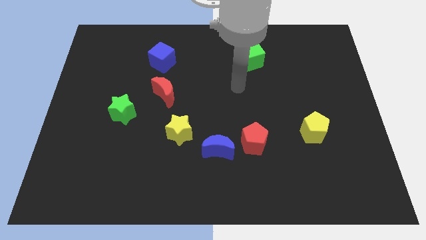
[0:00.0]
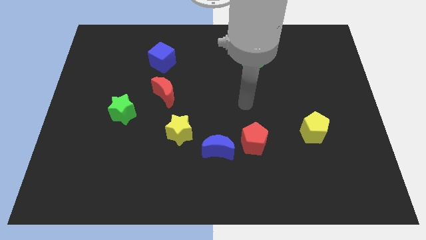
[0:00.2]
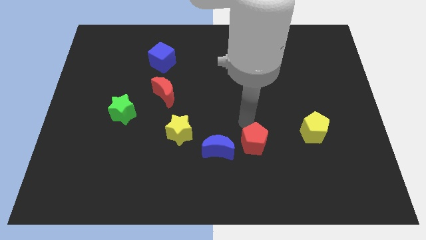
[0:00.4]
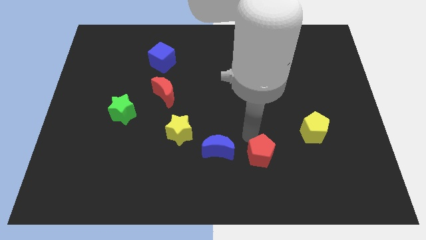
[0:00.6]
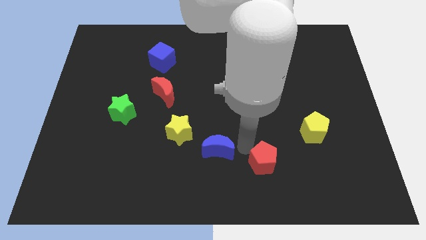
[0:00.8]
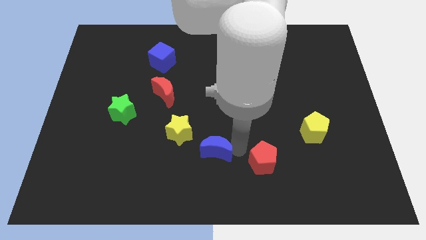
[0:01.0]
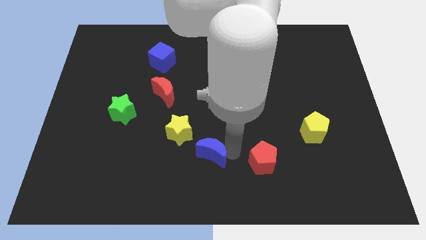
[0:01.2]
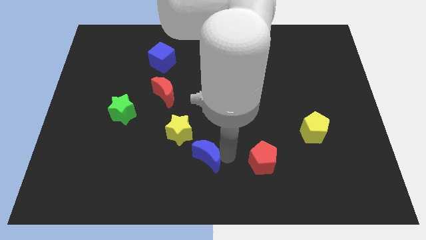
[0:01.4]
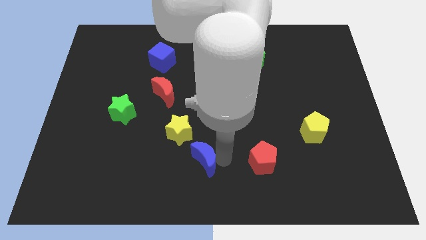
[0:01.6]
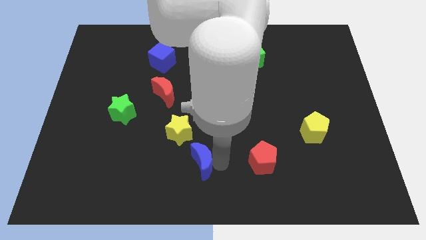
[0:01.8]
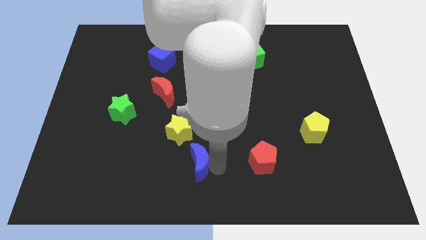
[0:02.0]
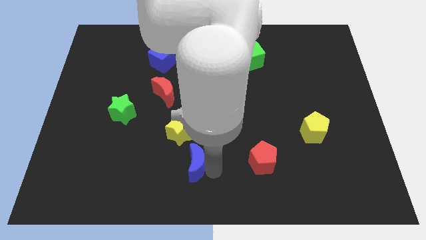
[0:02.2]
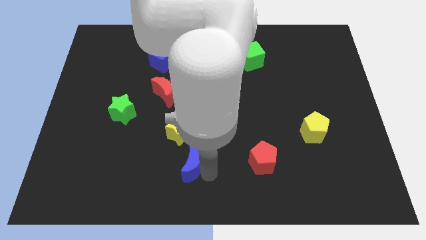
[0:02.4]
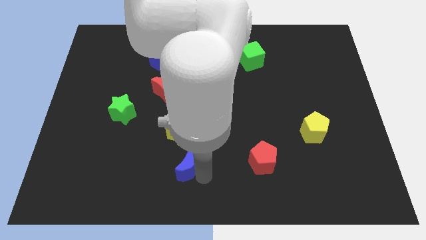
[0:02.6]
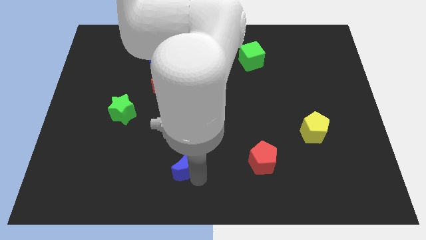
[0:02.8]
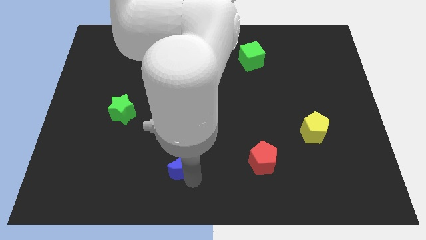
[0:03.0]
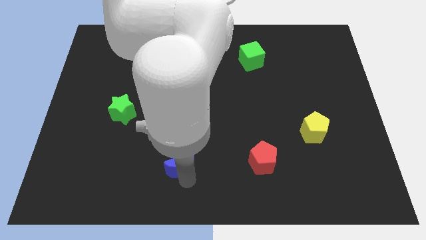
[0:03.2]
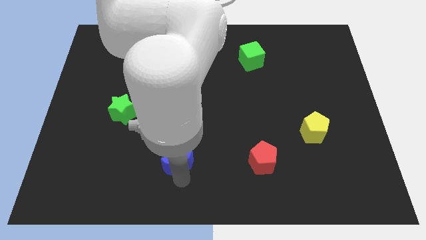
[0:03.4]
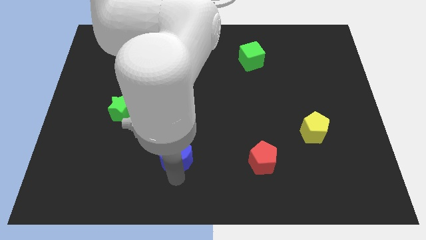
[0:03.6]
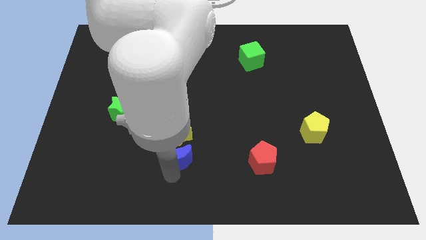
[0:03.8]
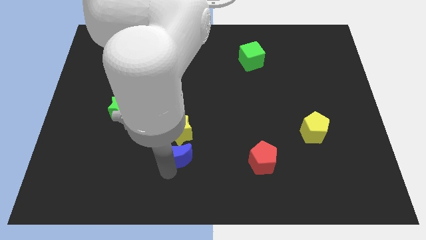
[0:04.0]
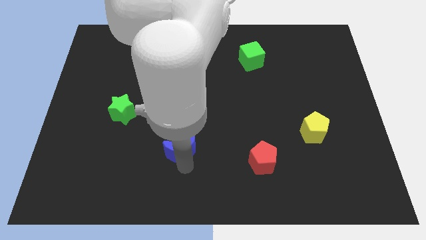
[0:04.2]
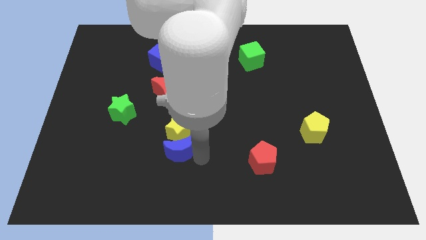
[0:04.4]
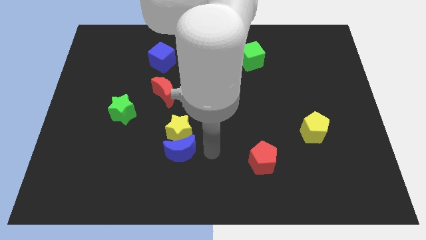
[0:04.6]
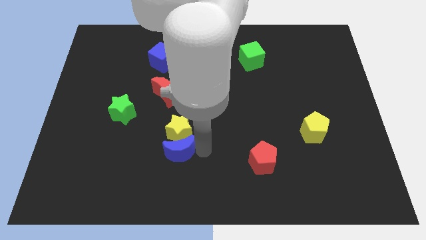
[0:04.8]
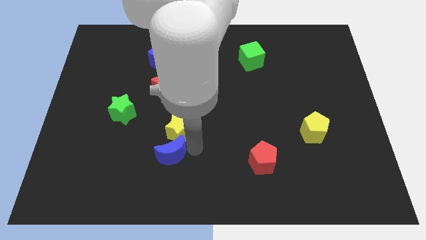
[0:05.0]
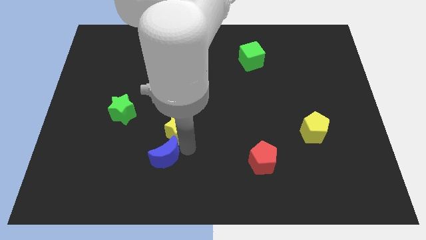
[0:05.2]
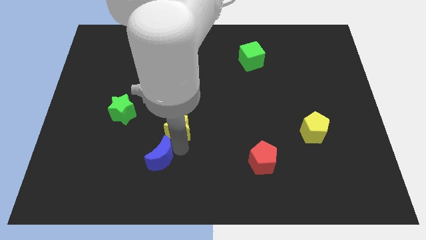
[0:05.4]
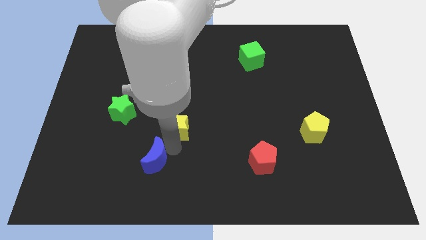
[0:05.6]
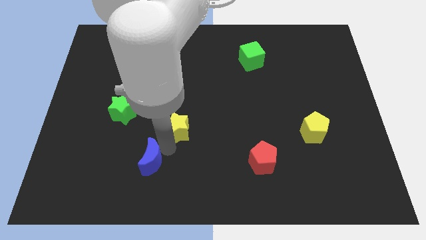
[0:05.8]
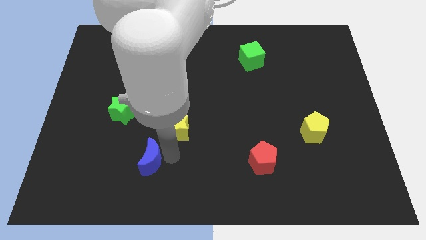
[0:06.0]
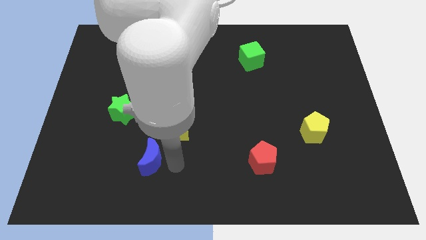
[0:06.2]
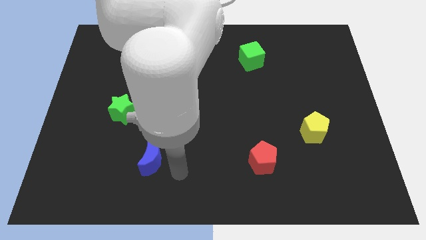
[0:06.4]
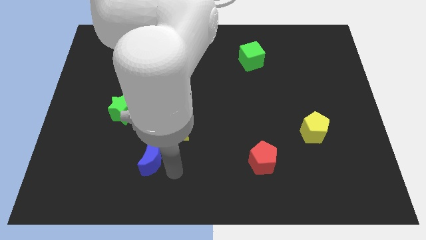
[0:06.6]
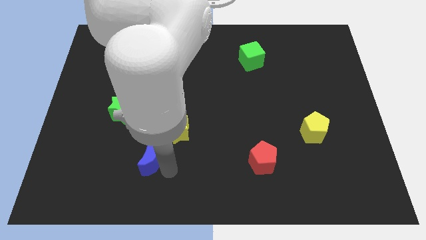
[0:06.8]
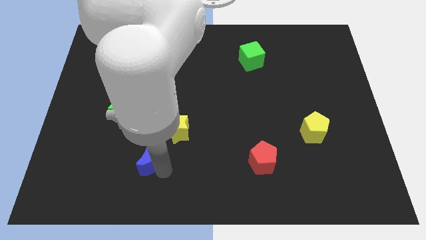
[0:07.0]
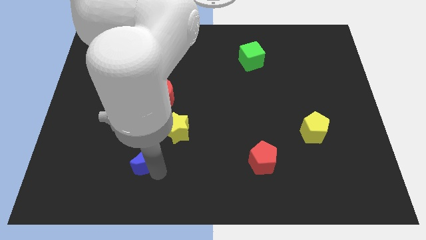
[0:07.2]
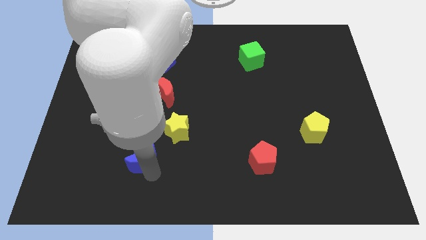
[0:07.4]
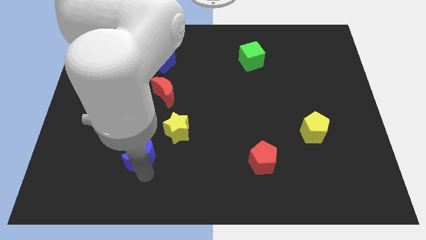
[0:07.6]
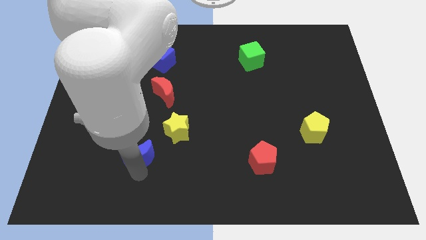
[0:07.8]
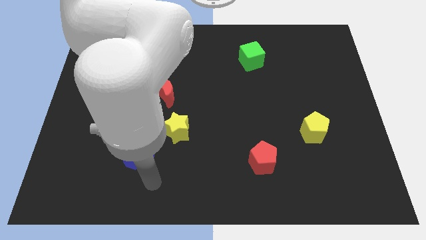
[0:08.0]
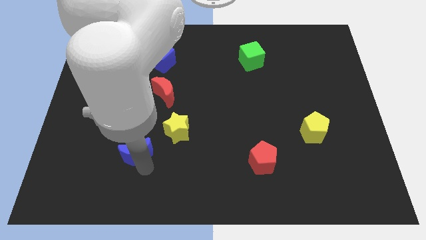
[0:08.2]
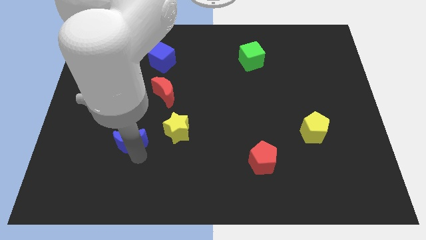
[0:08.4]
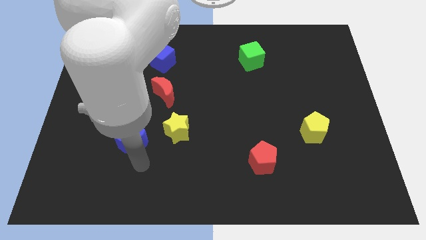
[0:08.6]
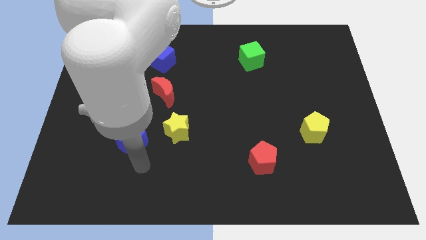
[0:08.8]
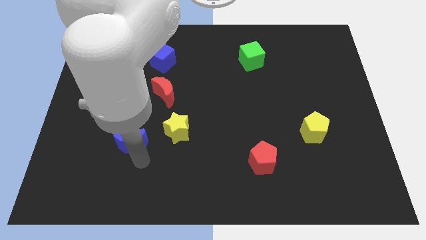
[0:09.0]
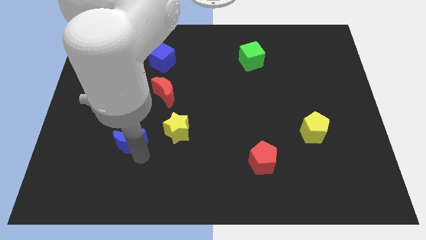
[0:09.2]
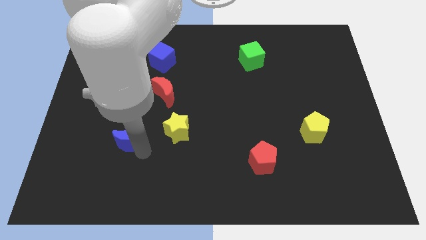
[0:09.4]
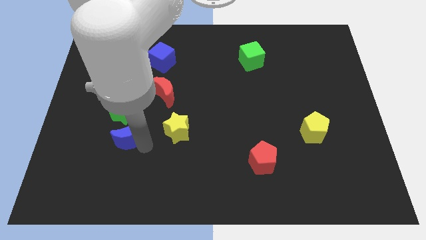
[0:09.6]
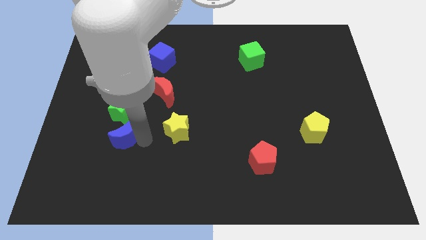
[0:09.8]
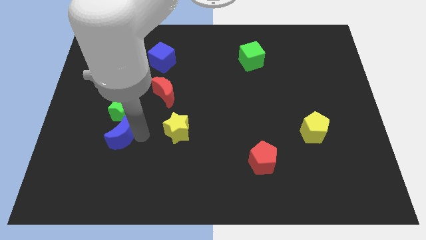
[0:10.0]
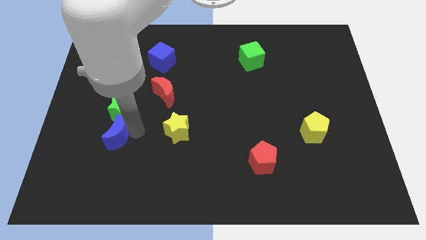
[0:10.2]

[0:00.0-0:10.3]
put the blue moon to the bottom left of the green star

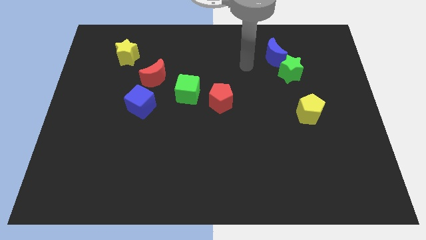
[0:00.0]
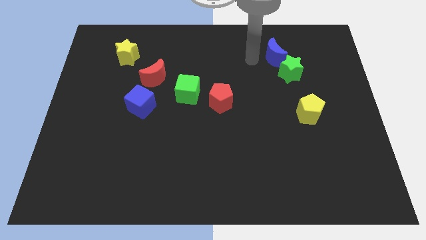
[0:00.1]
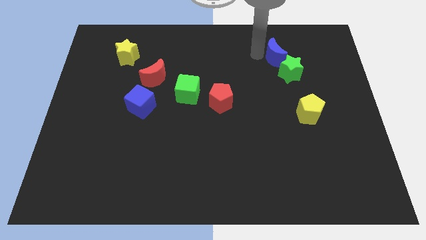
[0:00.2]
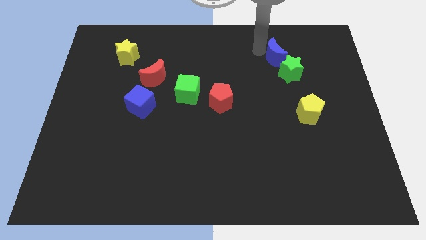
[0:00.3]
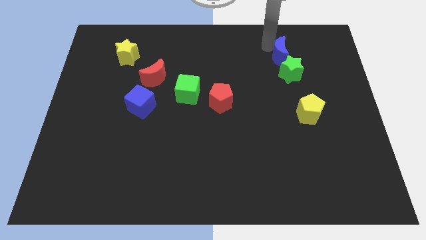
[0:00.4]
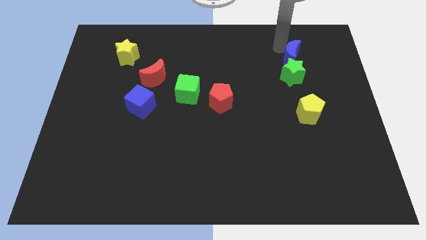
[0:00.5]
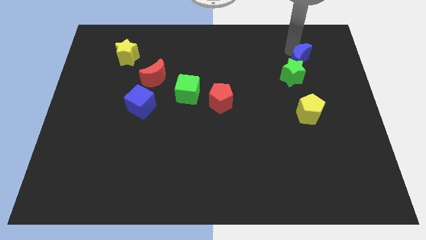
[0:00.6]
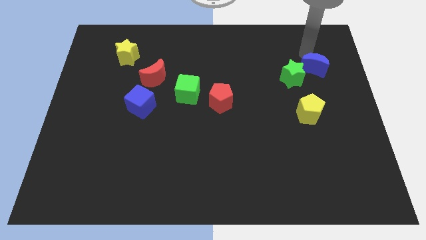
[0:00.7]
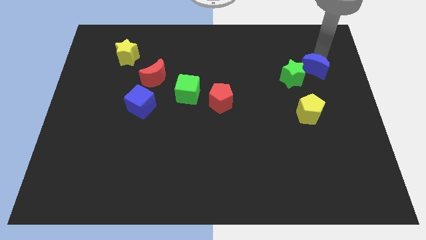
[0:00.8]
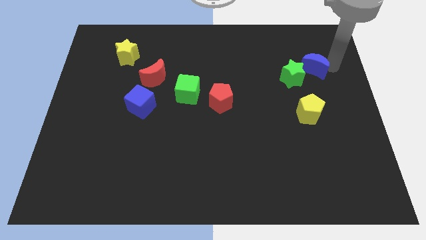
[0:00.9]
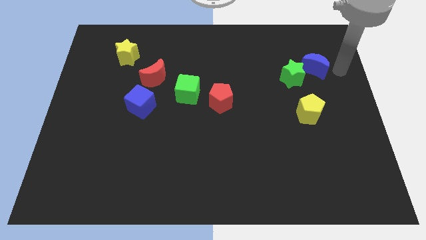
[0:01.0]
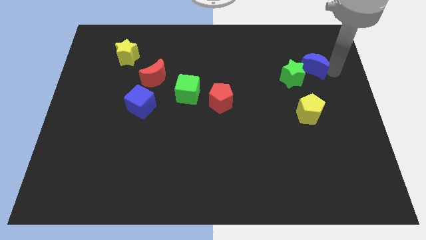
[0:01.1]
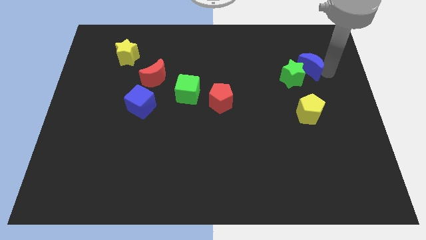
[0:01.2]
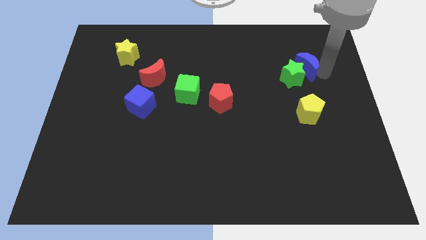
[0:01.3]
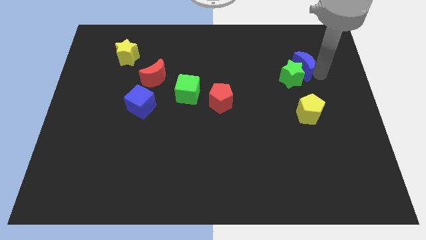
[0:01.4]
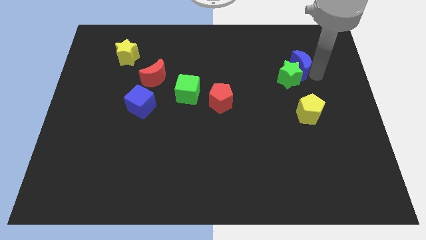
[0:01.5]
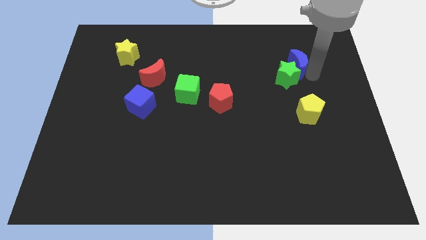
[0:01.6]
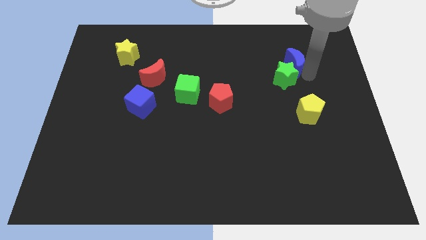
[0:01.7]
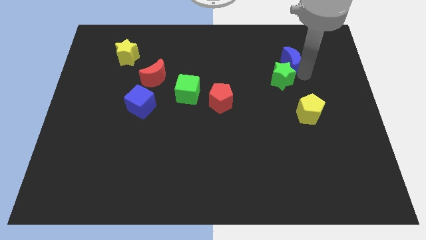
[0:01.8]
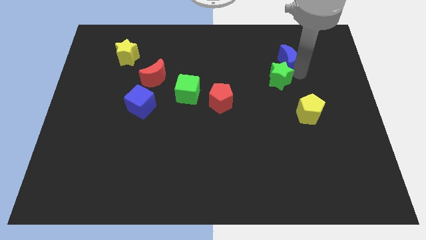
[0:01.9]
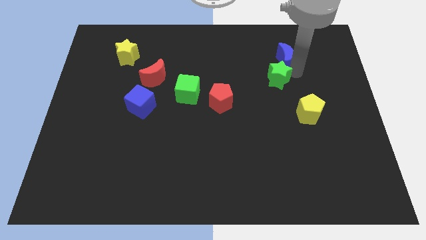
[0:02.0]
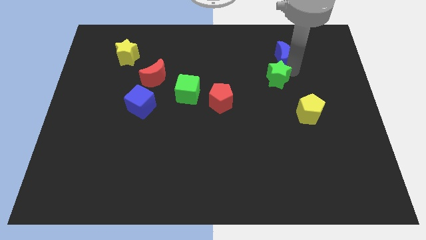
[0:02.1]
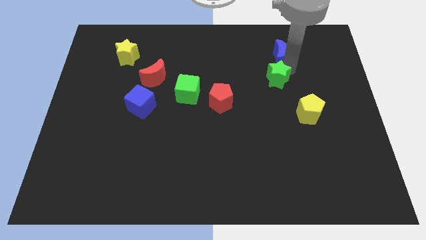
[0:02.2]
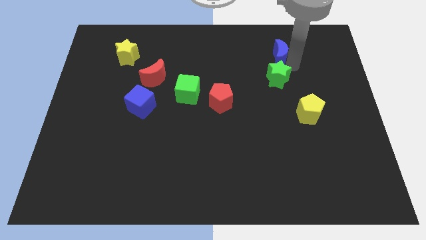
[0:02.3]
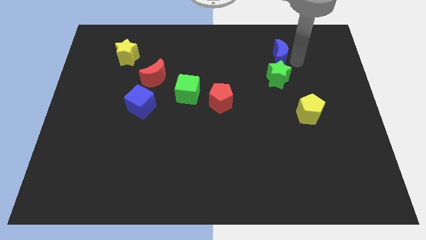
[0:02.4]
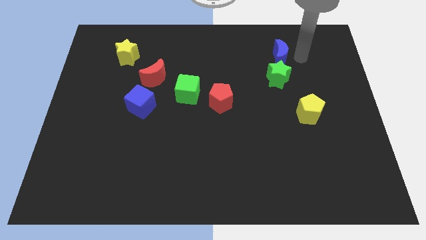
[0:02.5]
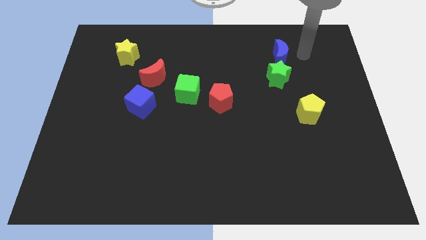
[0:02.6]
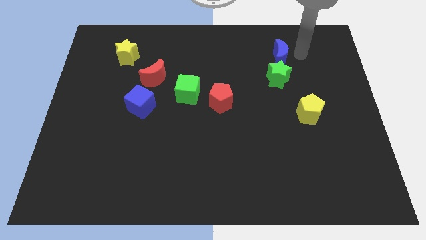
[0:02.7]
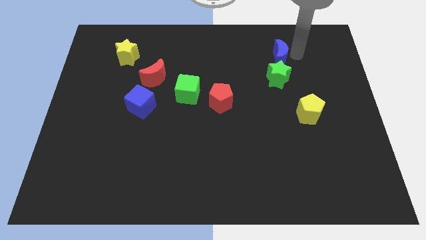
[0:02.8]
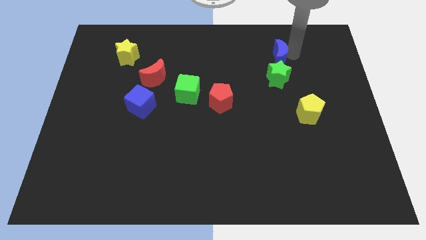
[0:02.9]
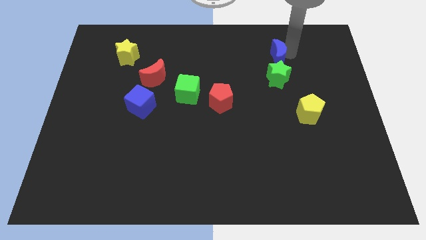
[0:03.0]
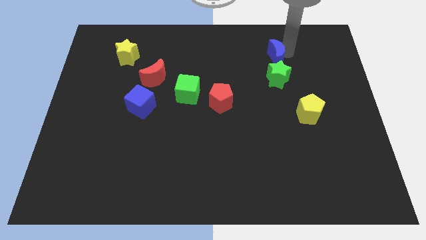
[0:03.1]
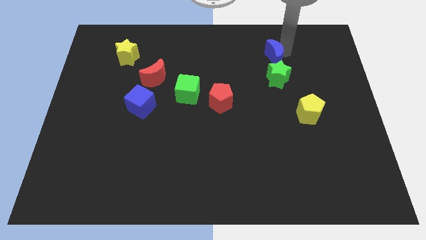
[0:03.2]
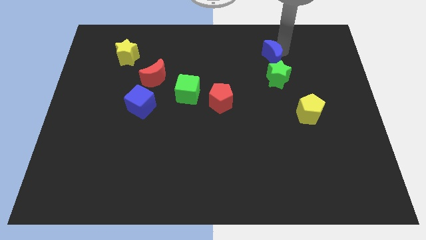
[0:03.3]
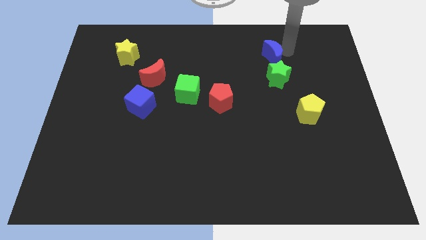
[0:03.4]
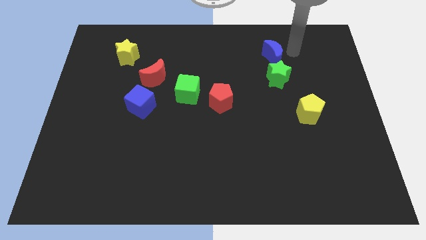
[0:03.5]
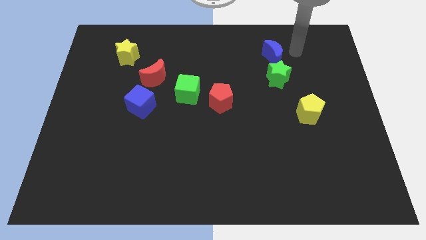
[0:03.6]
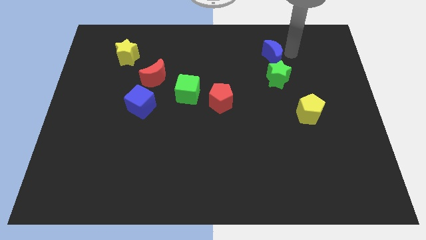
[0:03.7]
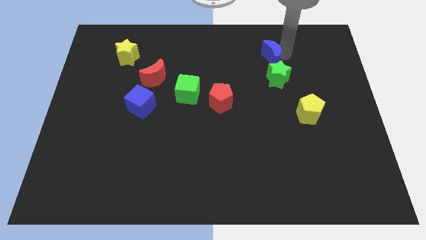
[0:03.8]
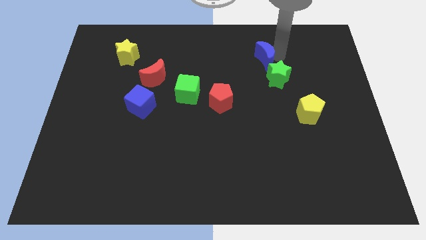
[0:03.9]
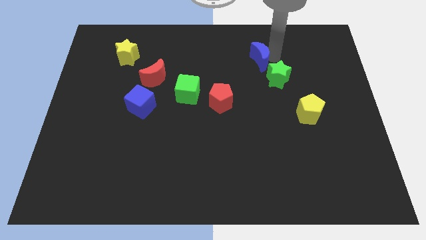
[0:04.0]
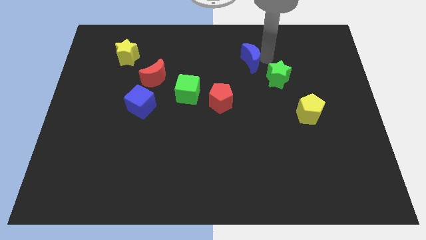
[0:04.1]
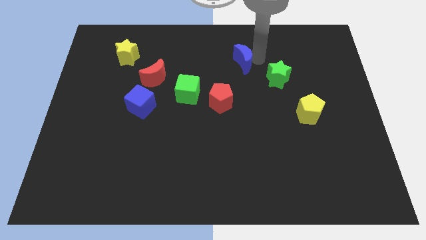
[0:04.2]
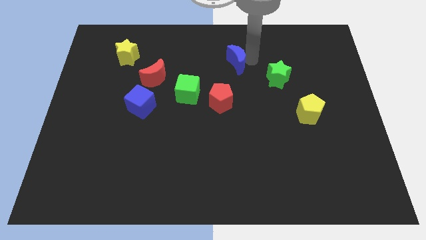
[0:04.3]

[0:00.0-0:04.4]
push the blue moon to the top side of the red pentagon
